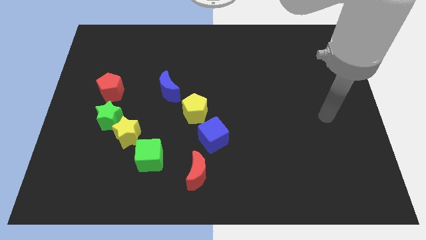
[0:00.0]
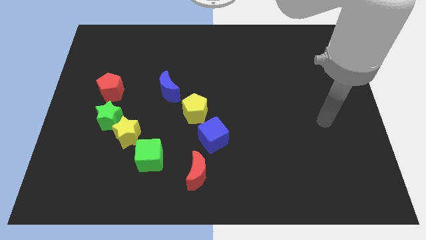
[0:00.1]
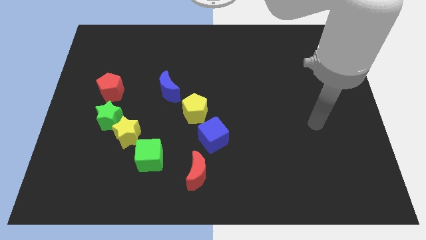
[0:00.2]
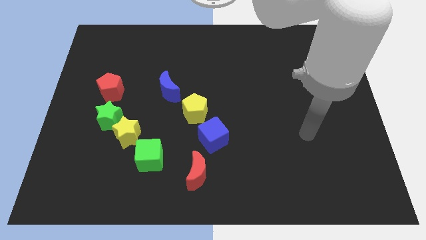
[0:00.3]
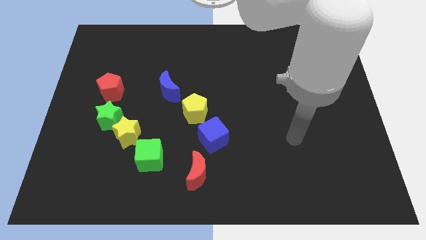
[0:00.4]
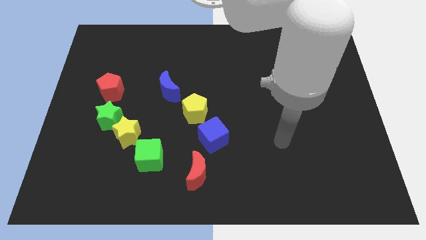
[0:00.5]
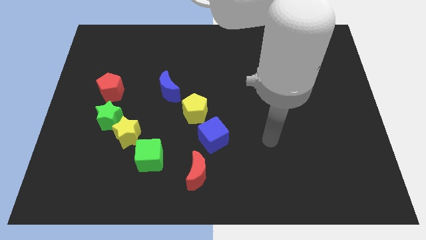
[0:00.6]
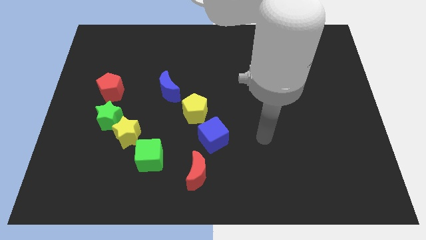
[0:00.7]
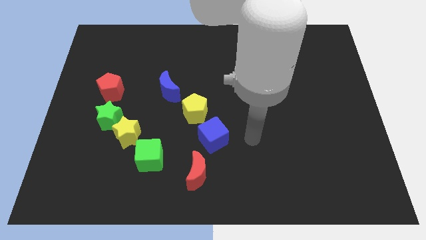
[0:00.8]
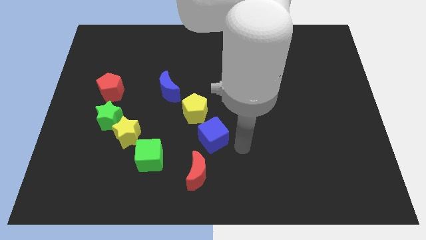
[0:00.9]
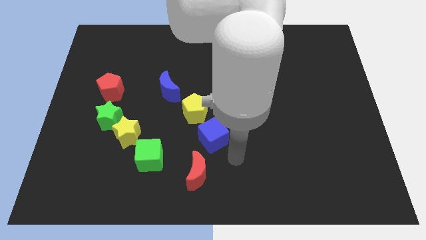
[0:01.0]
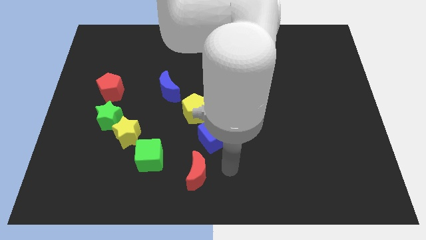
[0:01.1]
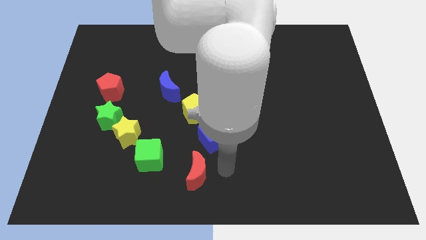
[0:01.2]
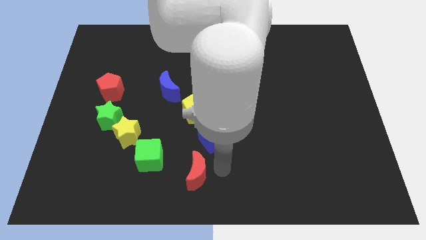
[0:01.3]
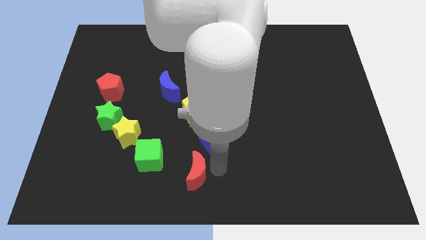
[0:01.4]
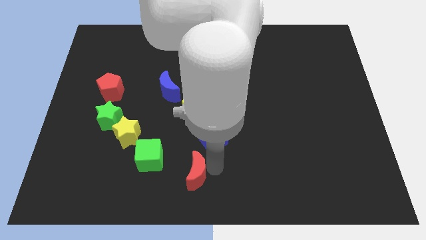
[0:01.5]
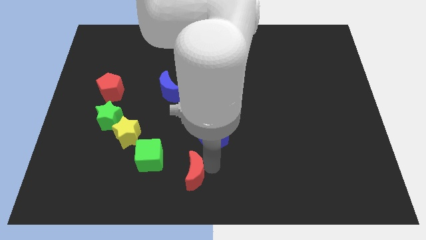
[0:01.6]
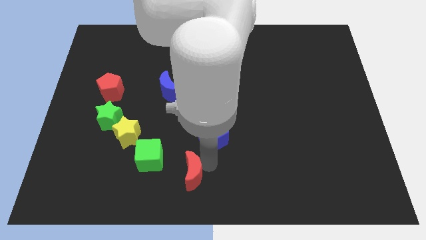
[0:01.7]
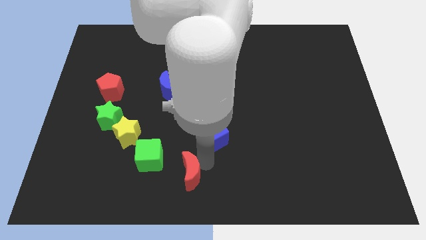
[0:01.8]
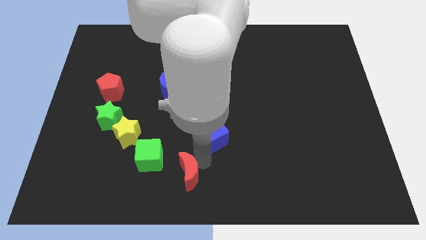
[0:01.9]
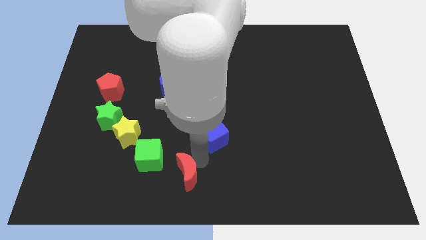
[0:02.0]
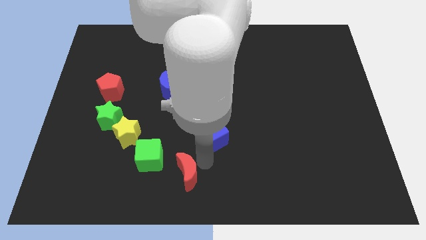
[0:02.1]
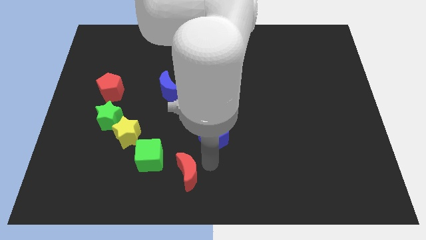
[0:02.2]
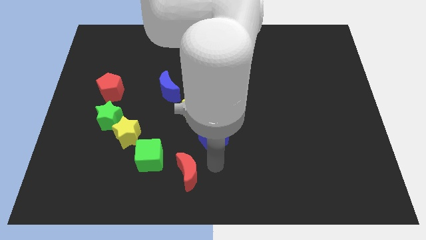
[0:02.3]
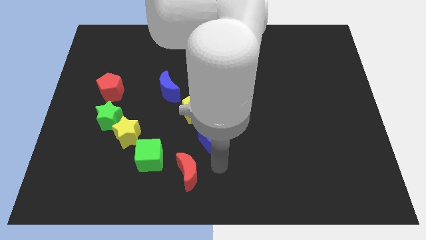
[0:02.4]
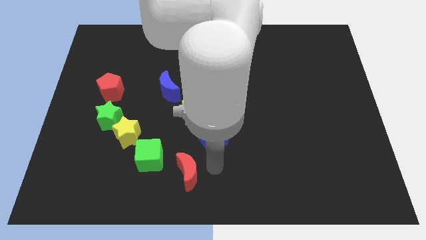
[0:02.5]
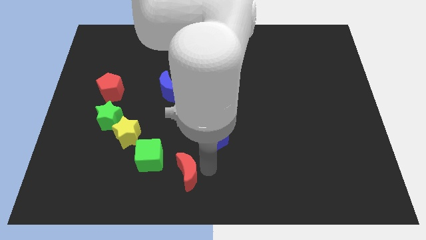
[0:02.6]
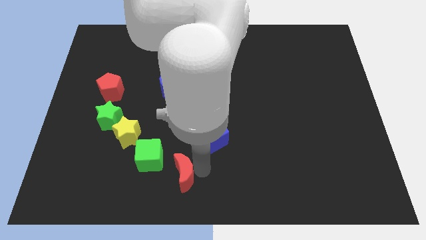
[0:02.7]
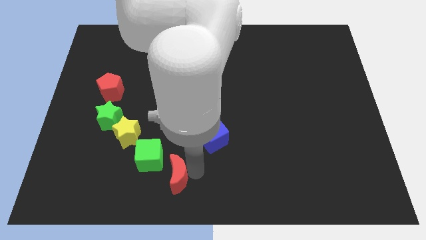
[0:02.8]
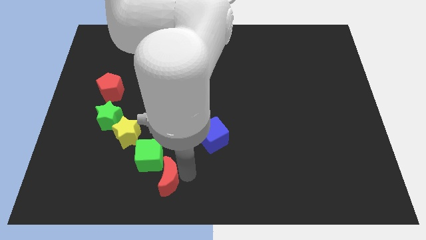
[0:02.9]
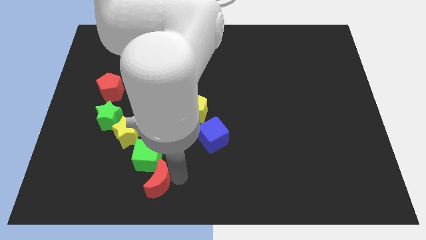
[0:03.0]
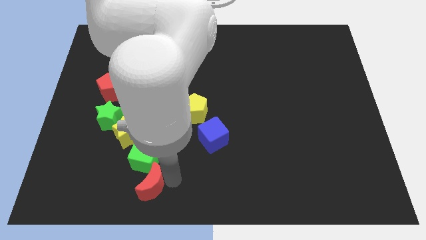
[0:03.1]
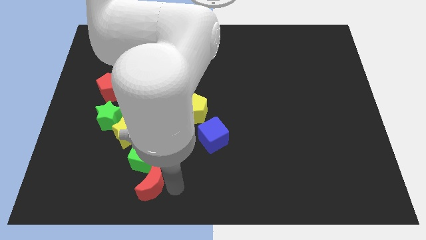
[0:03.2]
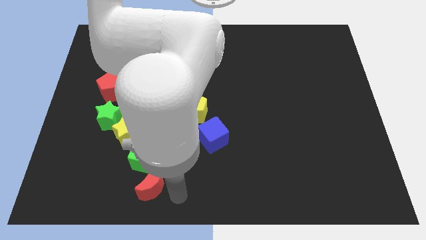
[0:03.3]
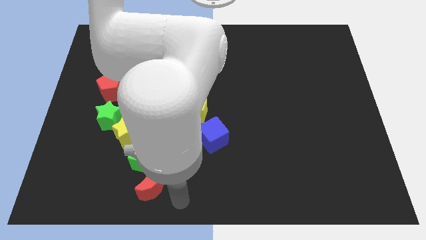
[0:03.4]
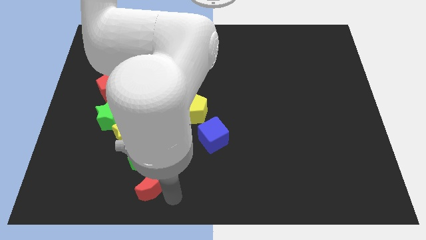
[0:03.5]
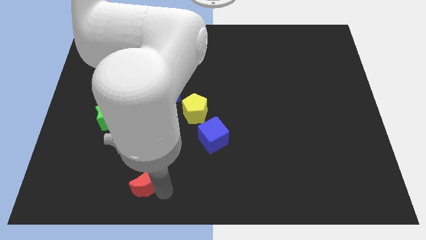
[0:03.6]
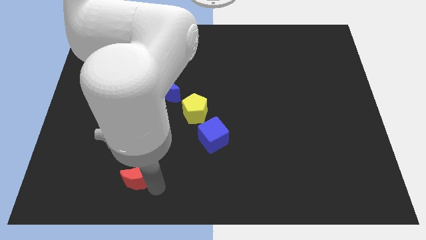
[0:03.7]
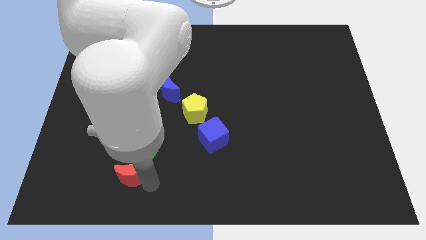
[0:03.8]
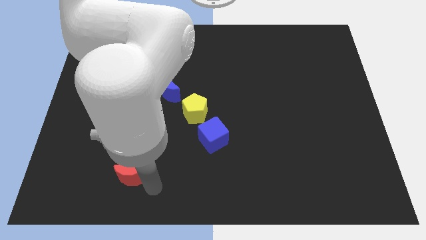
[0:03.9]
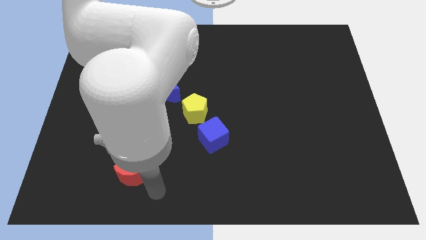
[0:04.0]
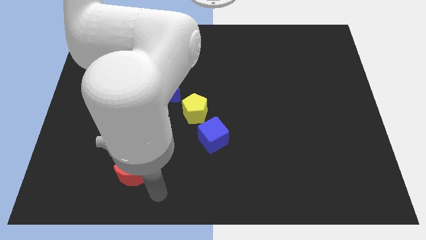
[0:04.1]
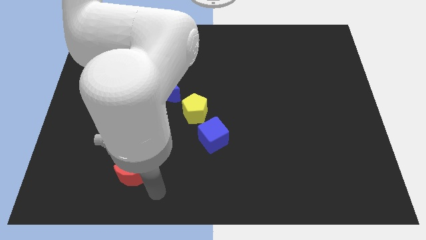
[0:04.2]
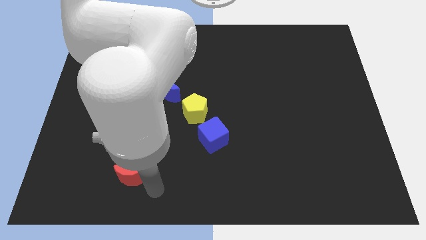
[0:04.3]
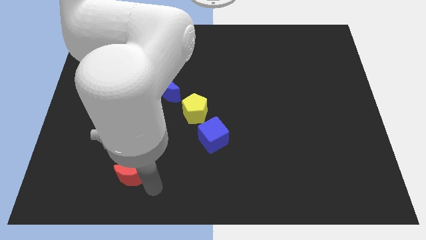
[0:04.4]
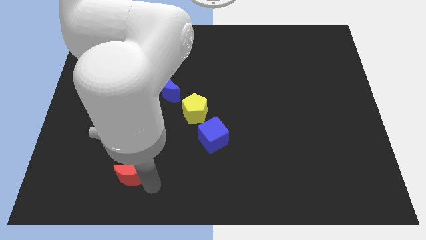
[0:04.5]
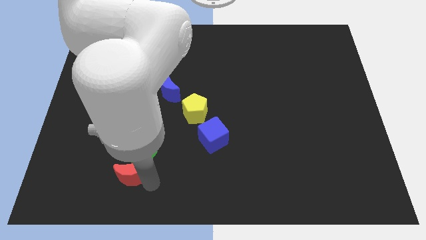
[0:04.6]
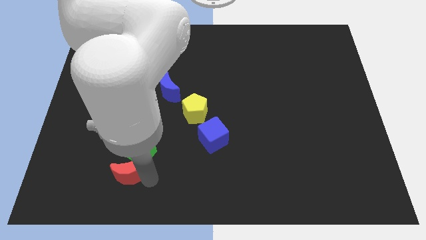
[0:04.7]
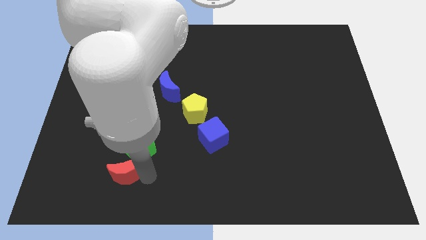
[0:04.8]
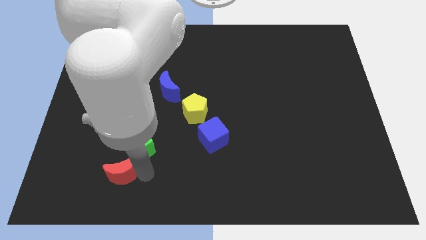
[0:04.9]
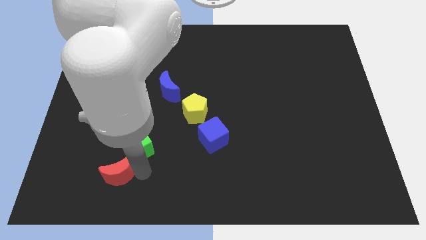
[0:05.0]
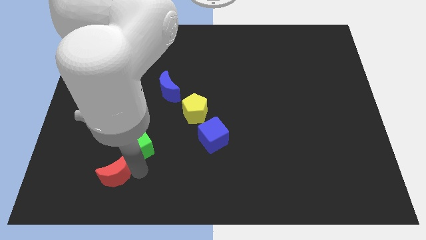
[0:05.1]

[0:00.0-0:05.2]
slide the red moon to the bottom side of the green star

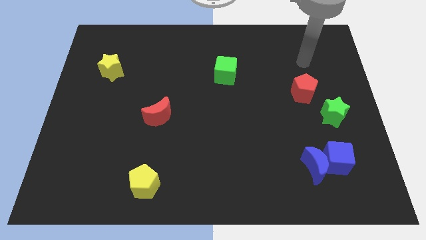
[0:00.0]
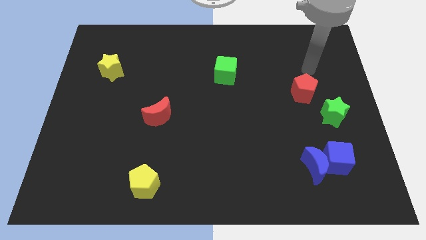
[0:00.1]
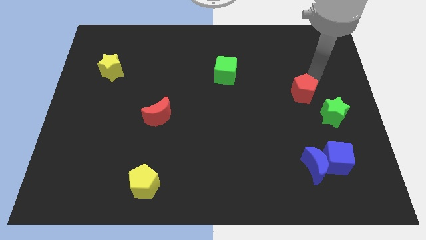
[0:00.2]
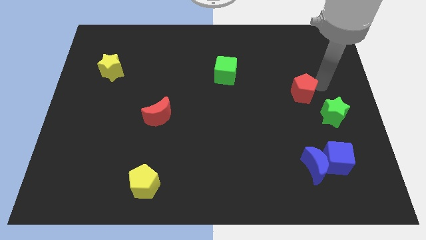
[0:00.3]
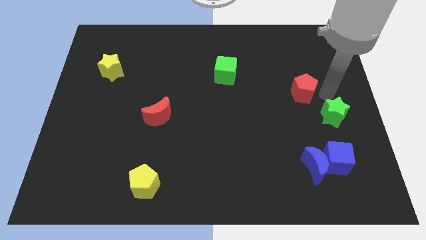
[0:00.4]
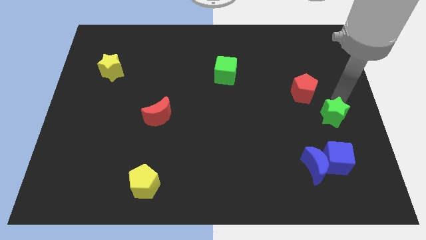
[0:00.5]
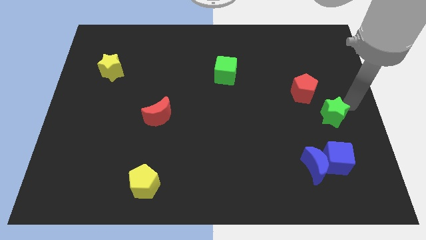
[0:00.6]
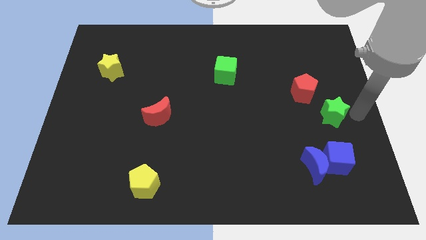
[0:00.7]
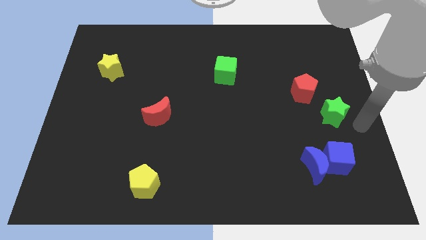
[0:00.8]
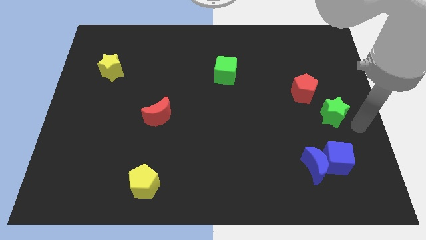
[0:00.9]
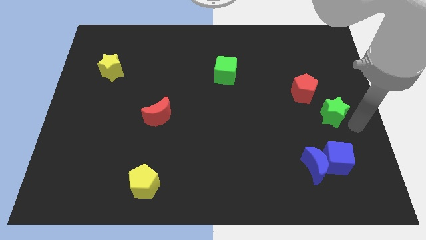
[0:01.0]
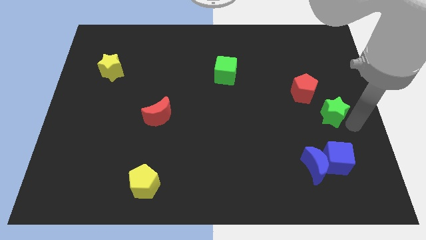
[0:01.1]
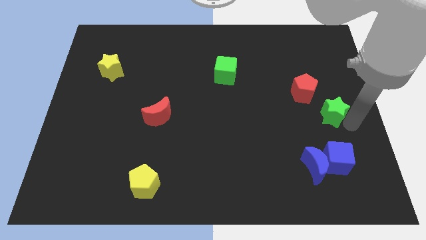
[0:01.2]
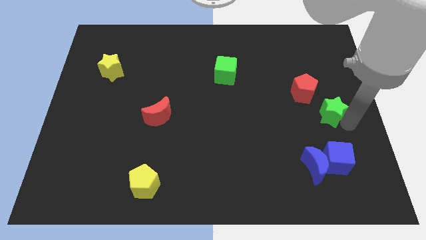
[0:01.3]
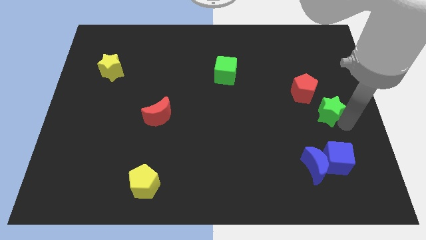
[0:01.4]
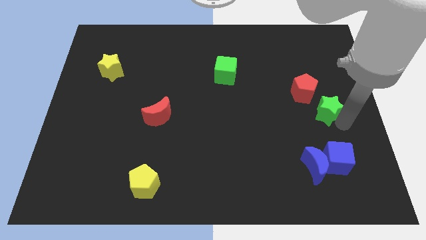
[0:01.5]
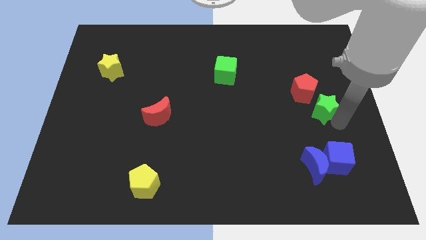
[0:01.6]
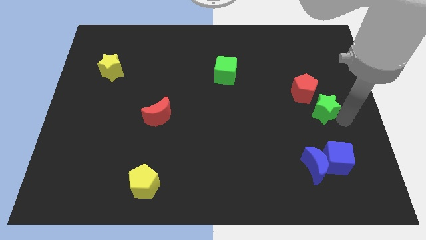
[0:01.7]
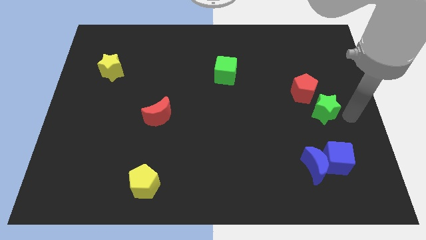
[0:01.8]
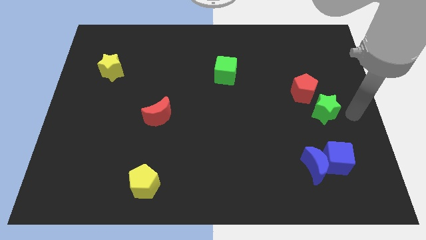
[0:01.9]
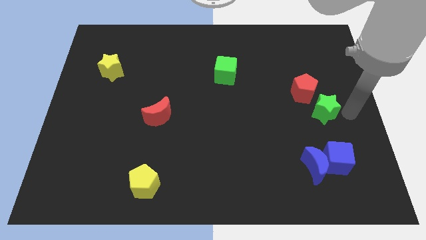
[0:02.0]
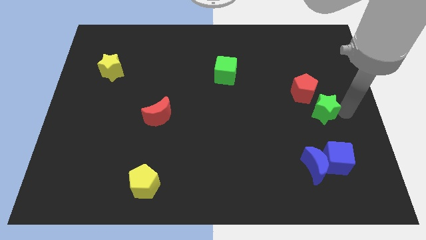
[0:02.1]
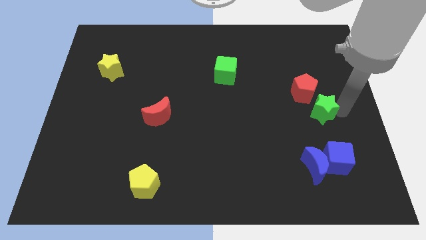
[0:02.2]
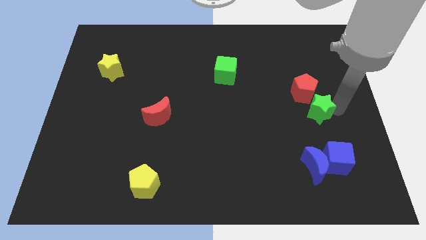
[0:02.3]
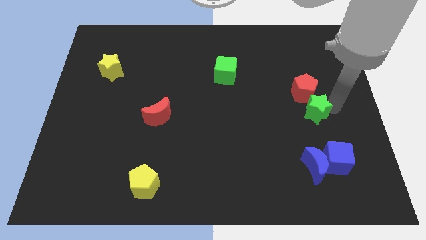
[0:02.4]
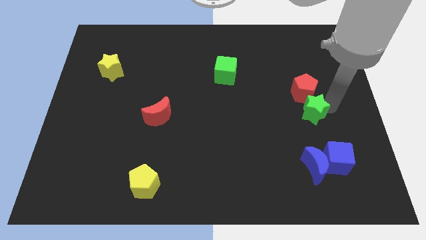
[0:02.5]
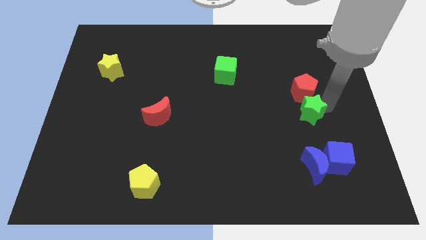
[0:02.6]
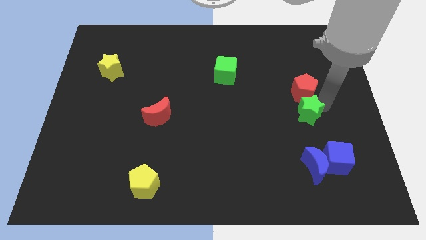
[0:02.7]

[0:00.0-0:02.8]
put the green star to the bottom left side of the red pentagon
